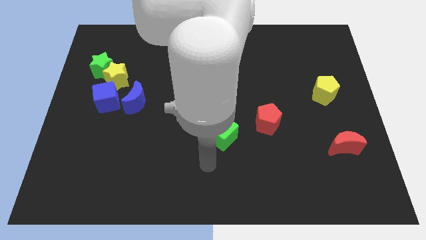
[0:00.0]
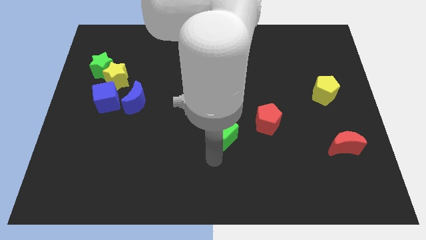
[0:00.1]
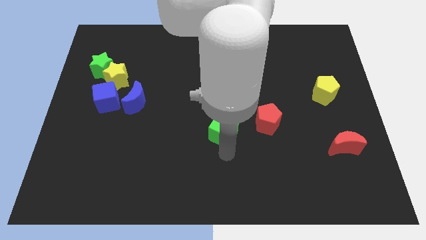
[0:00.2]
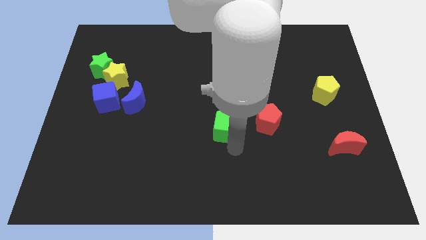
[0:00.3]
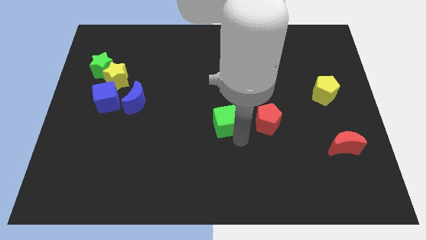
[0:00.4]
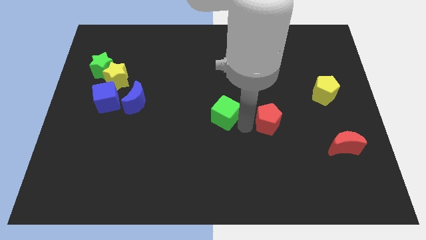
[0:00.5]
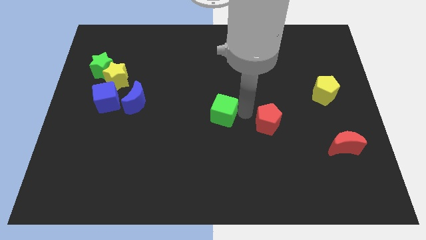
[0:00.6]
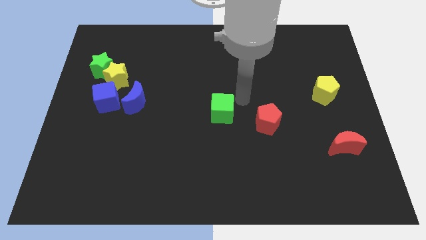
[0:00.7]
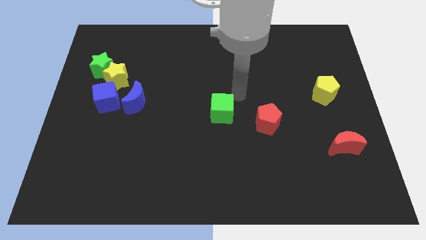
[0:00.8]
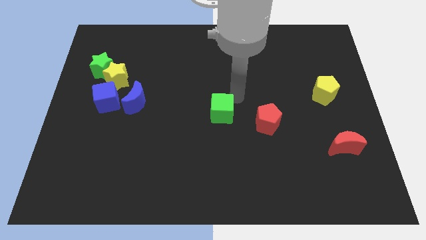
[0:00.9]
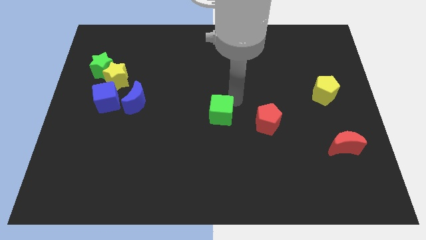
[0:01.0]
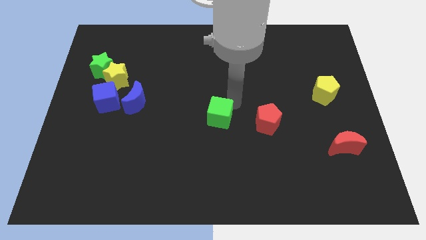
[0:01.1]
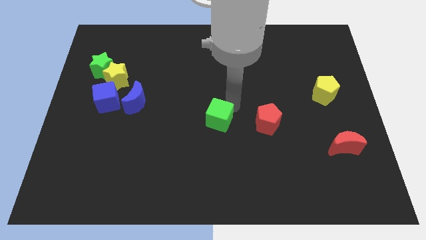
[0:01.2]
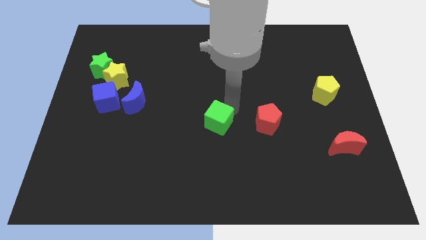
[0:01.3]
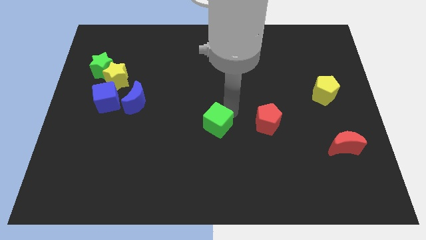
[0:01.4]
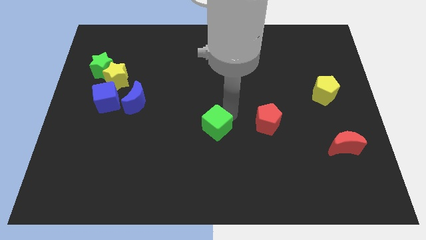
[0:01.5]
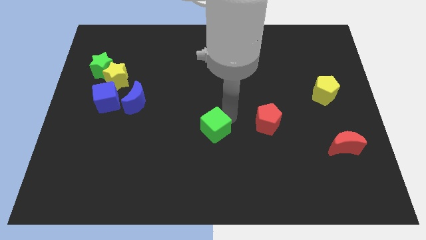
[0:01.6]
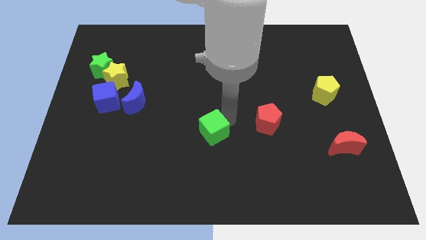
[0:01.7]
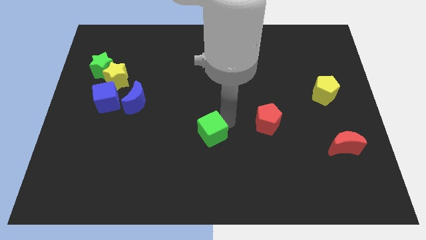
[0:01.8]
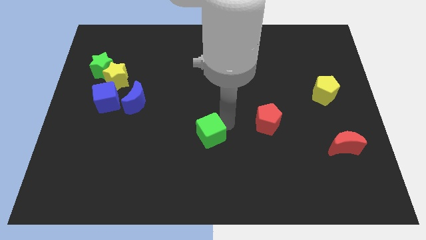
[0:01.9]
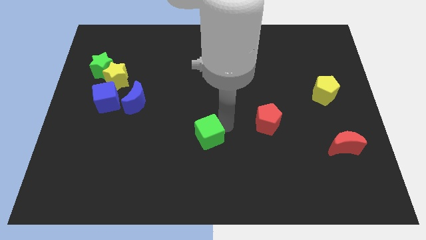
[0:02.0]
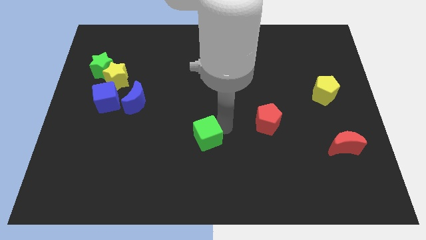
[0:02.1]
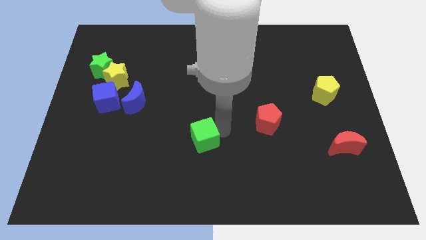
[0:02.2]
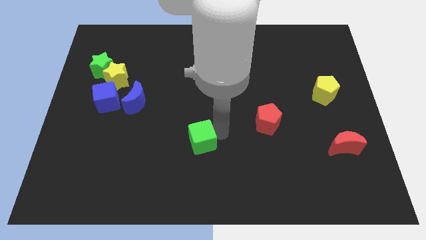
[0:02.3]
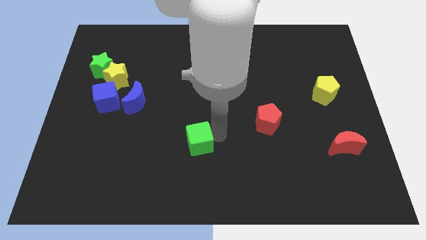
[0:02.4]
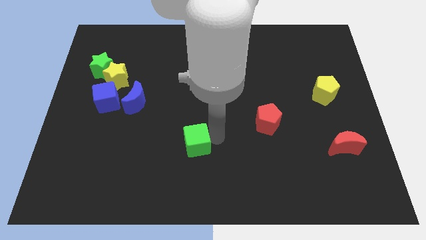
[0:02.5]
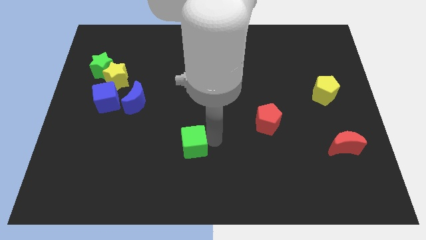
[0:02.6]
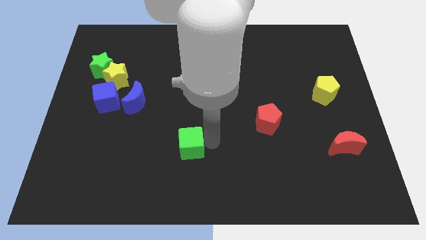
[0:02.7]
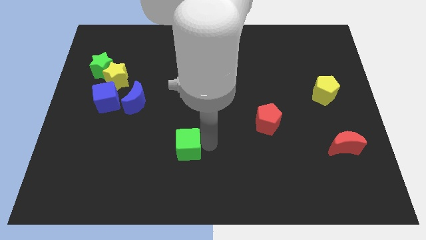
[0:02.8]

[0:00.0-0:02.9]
push the green cube slightly left

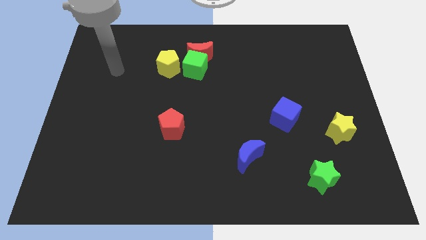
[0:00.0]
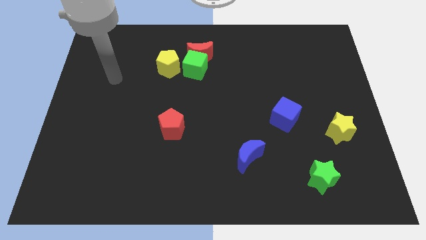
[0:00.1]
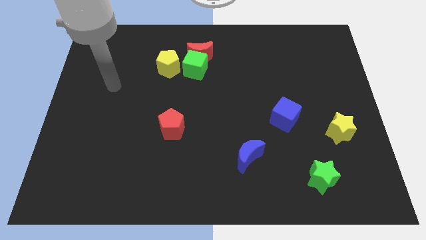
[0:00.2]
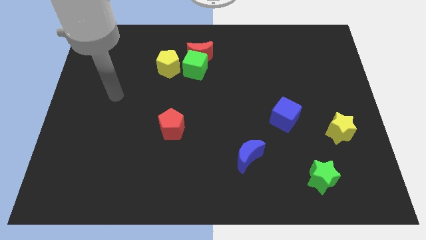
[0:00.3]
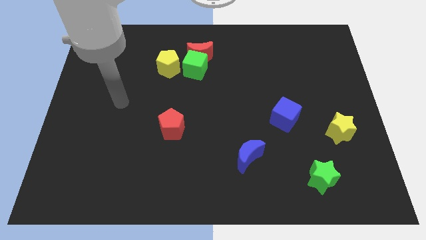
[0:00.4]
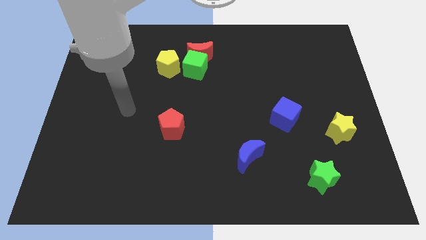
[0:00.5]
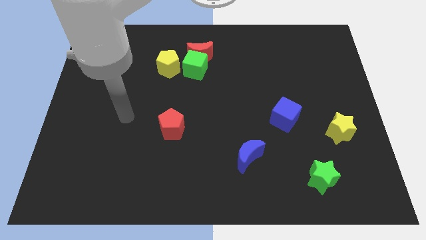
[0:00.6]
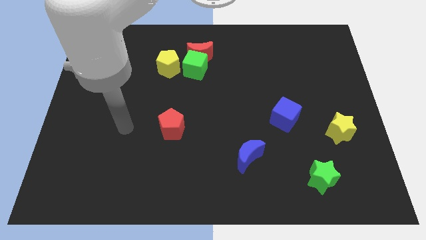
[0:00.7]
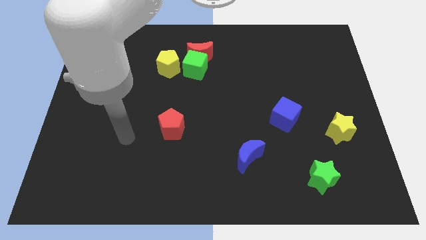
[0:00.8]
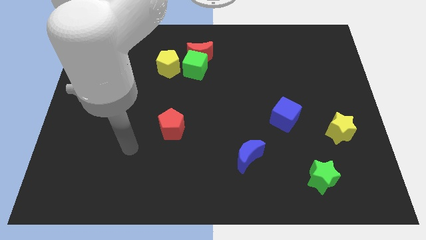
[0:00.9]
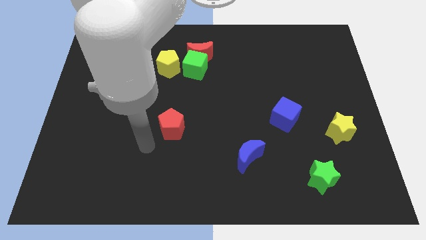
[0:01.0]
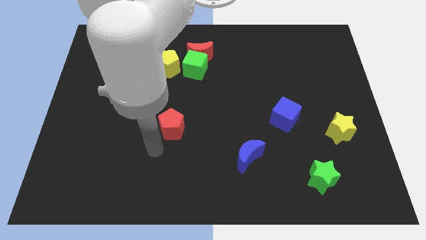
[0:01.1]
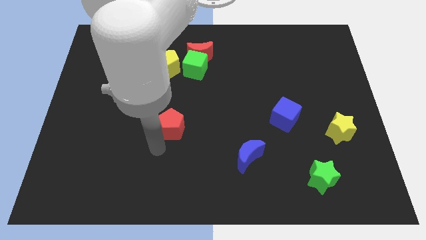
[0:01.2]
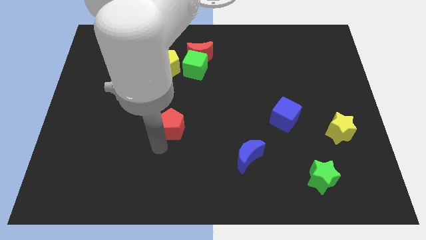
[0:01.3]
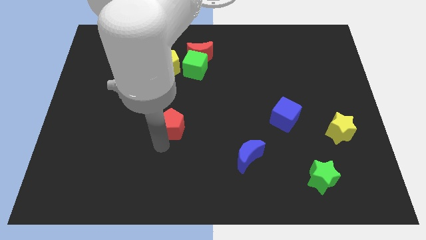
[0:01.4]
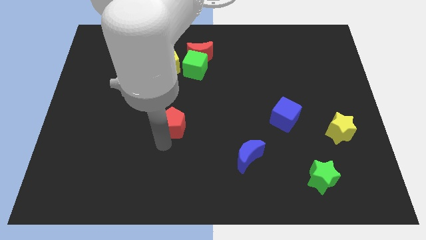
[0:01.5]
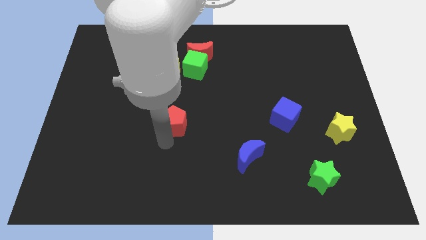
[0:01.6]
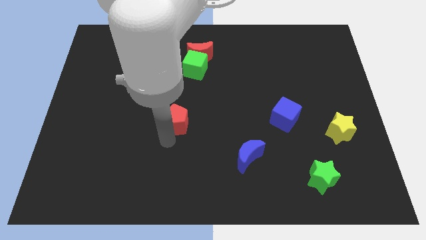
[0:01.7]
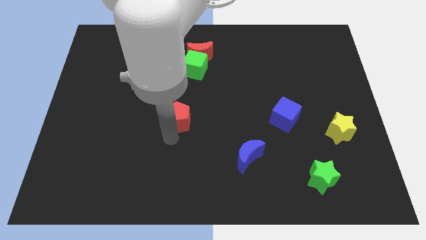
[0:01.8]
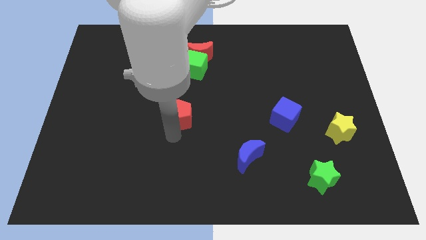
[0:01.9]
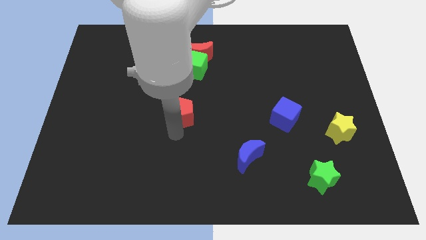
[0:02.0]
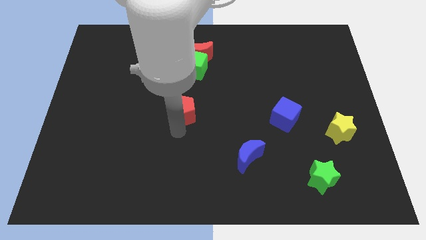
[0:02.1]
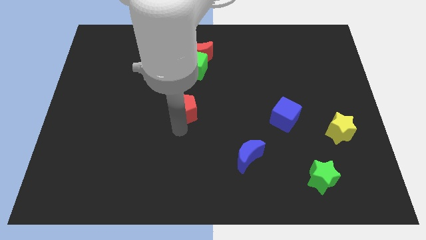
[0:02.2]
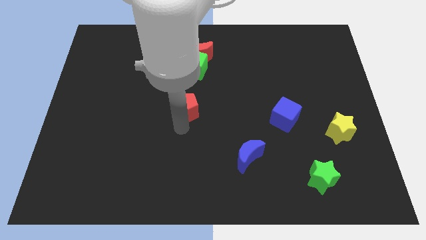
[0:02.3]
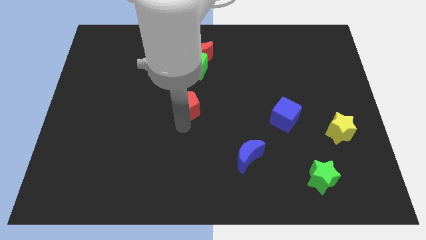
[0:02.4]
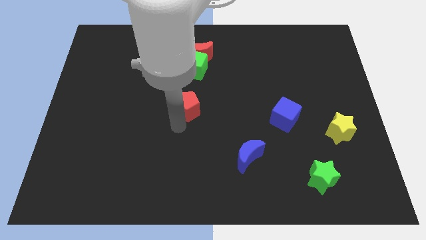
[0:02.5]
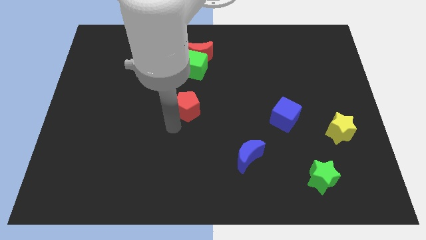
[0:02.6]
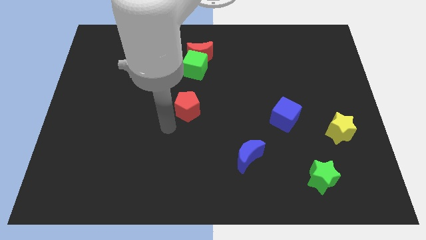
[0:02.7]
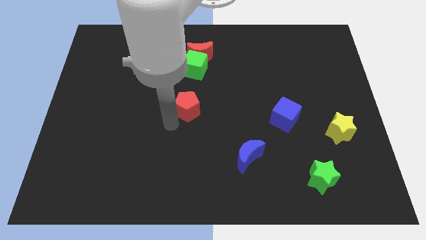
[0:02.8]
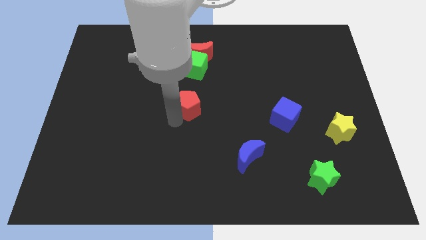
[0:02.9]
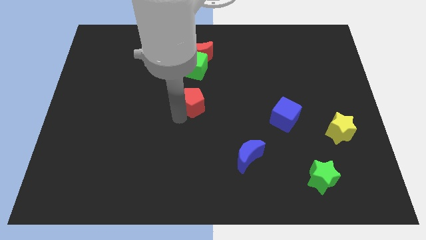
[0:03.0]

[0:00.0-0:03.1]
slightly slide the red pentagon diagonally up and right

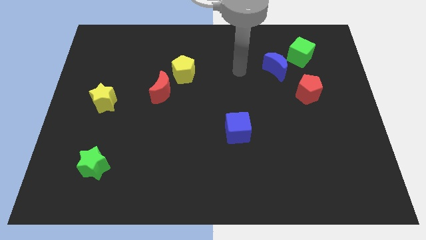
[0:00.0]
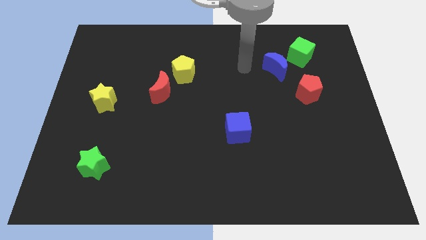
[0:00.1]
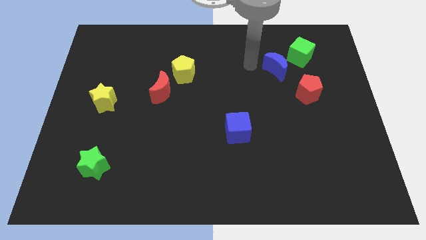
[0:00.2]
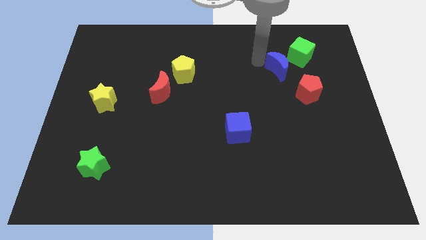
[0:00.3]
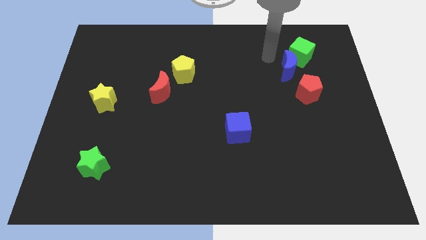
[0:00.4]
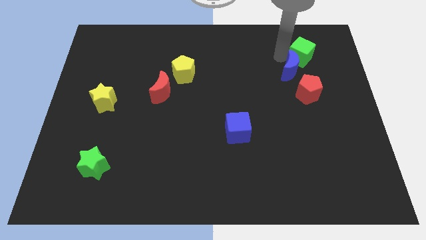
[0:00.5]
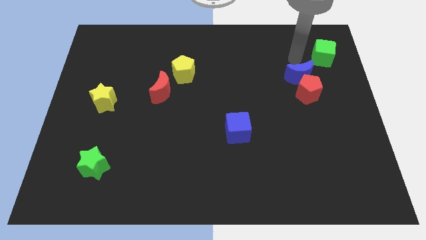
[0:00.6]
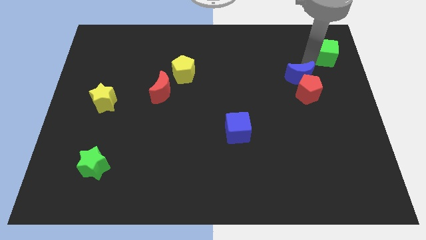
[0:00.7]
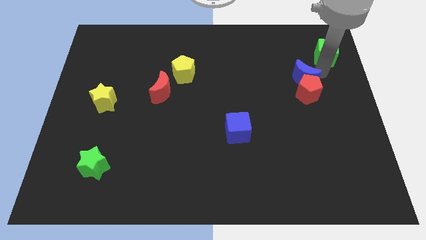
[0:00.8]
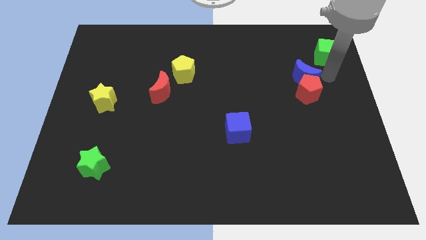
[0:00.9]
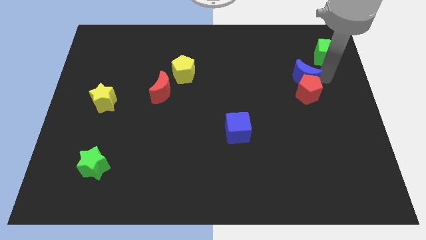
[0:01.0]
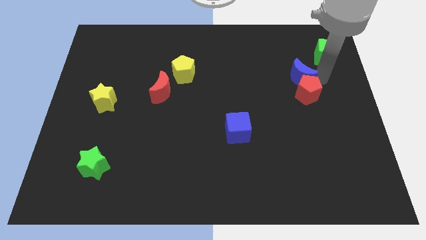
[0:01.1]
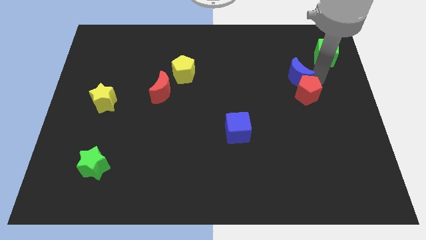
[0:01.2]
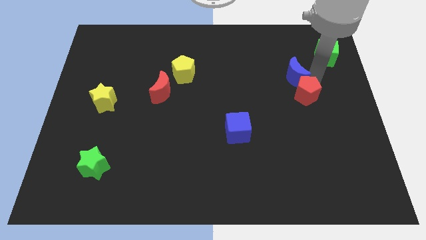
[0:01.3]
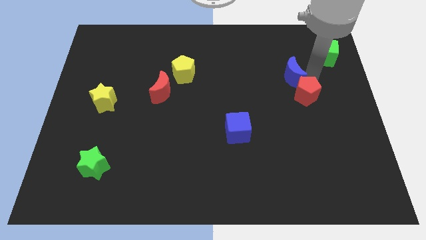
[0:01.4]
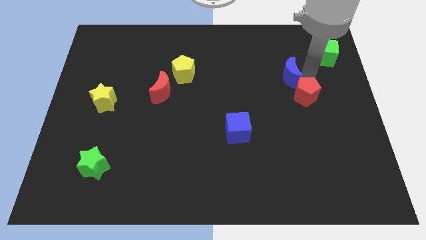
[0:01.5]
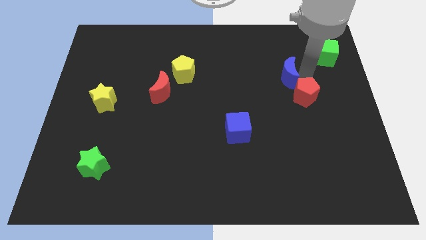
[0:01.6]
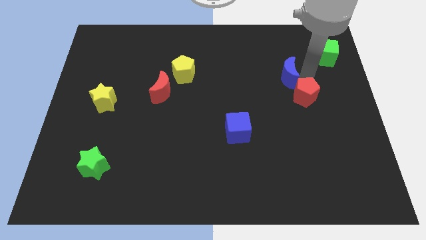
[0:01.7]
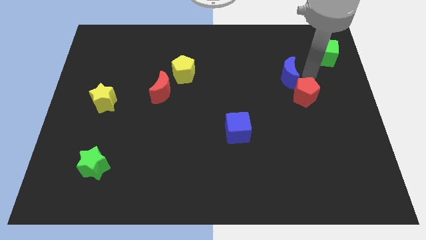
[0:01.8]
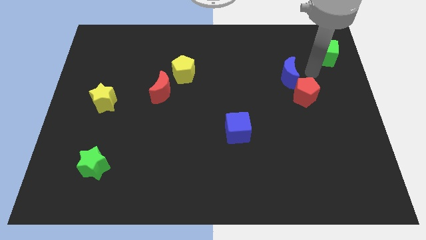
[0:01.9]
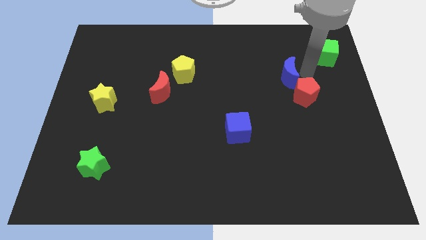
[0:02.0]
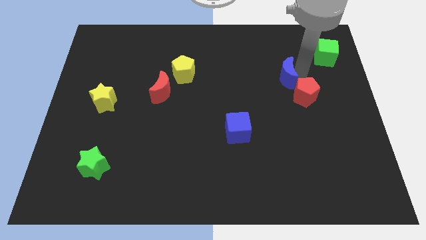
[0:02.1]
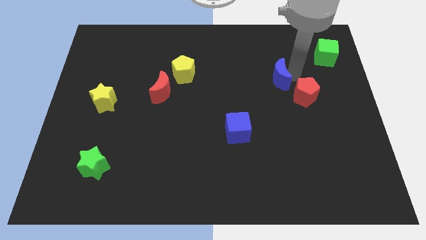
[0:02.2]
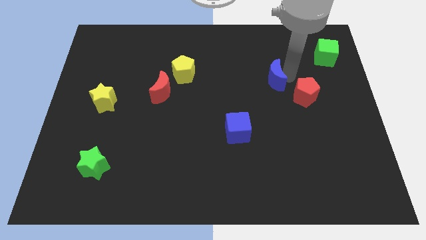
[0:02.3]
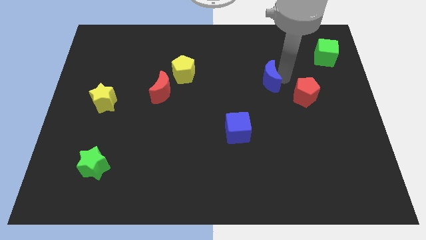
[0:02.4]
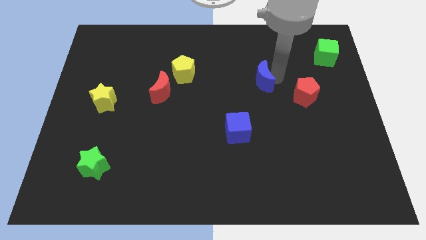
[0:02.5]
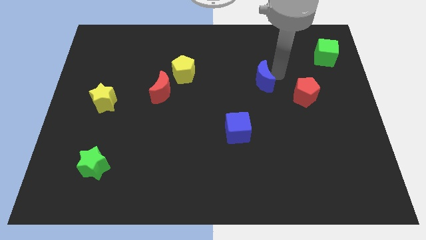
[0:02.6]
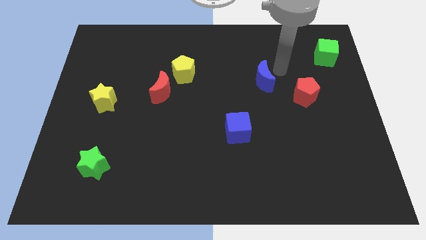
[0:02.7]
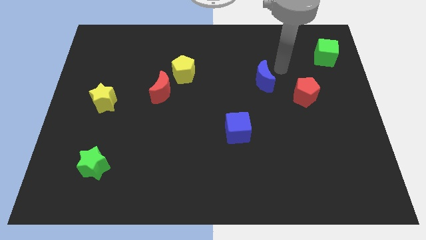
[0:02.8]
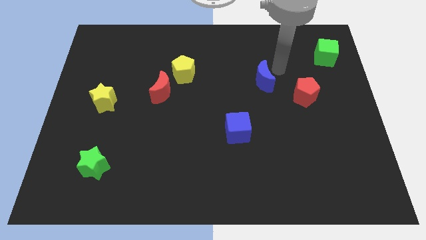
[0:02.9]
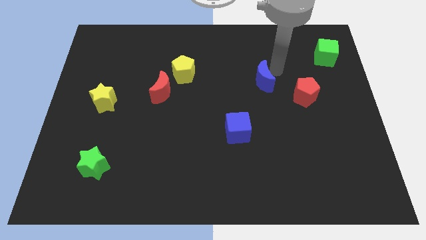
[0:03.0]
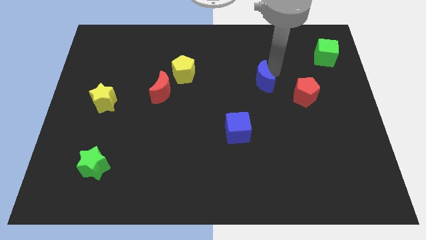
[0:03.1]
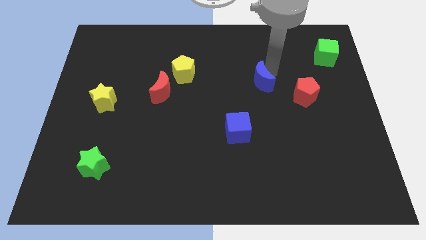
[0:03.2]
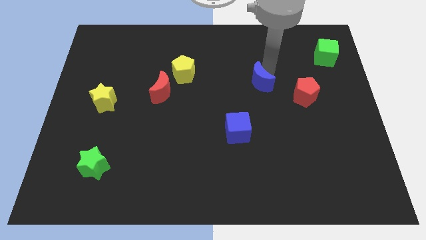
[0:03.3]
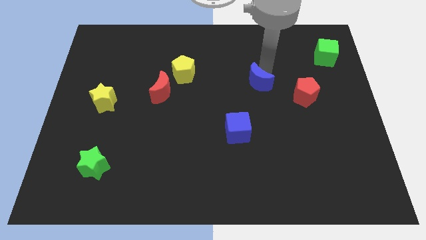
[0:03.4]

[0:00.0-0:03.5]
slide the blue moon slightly downwards and then to the left
